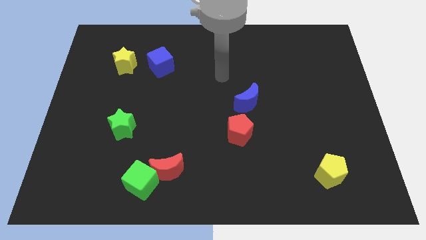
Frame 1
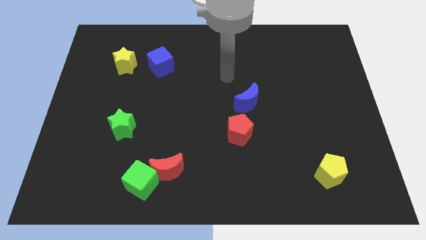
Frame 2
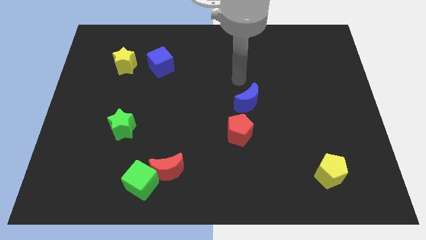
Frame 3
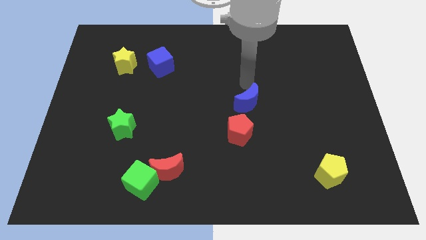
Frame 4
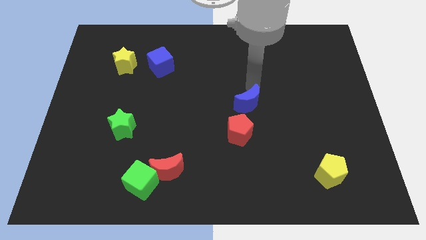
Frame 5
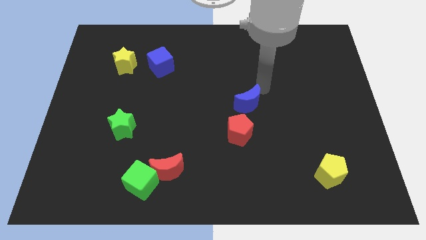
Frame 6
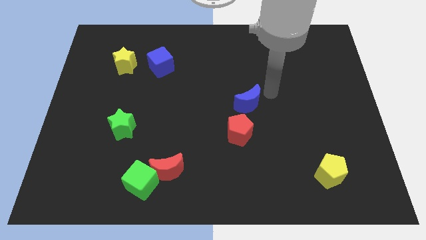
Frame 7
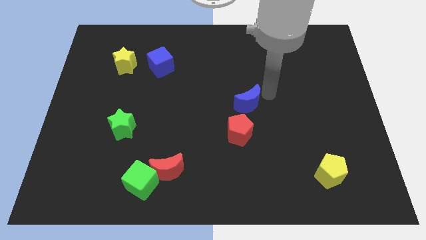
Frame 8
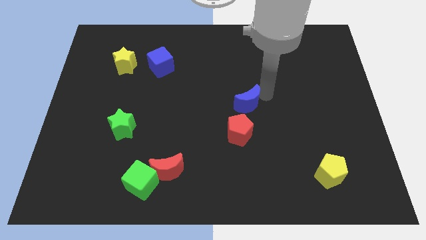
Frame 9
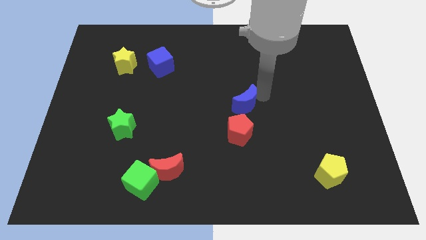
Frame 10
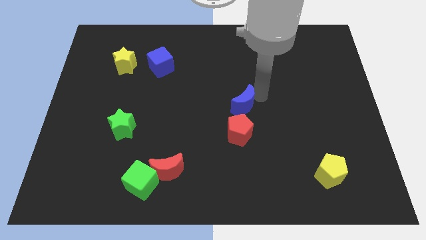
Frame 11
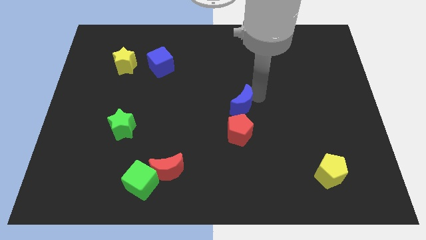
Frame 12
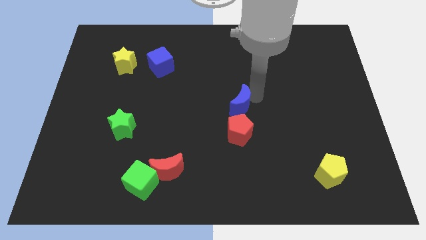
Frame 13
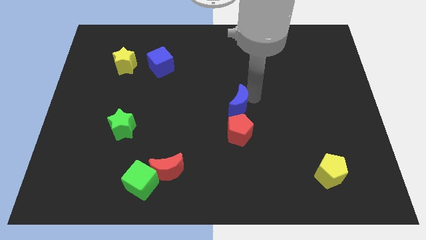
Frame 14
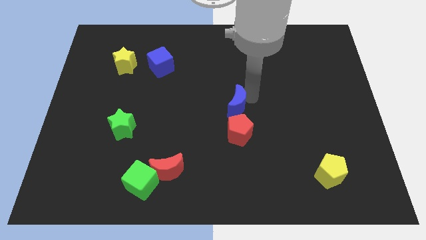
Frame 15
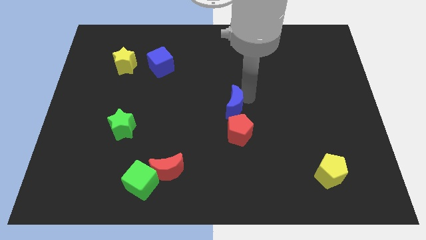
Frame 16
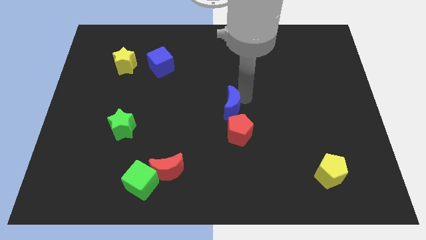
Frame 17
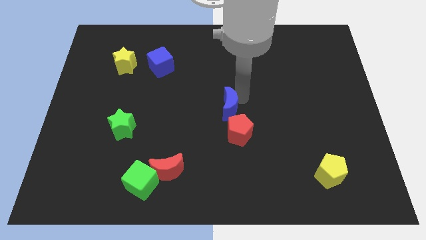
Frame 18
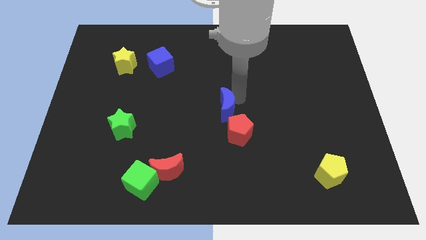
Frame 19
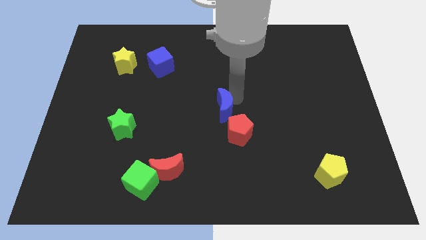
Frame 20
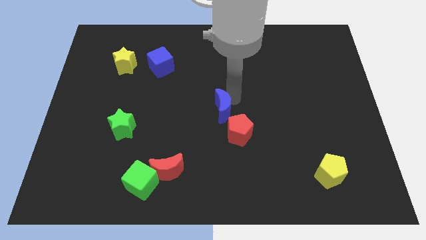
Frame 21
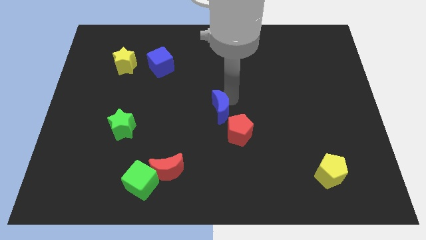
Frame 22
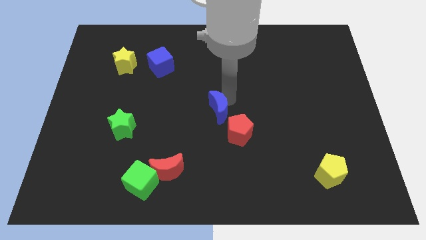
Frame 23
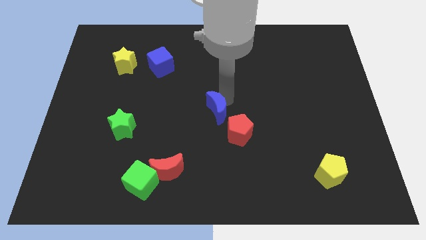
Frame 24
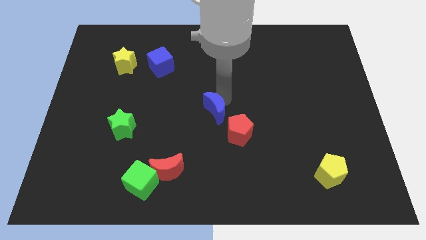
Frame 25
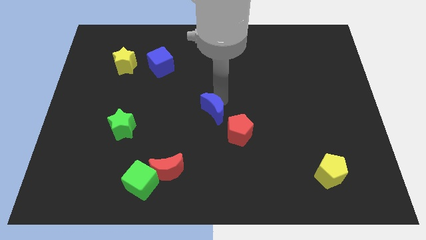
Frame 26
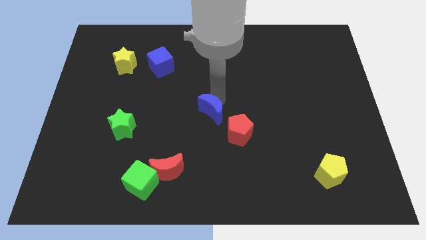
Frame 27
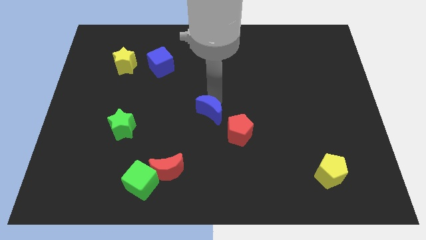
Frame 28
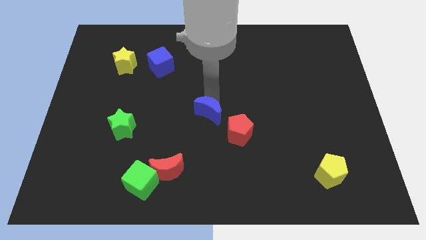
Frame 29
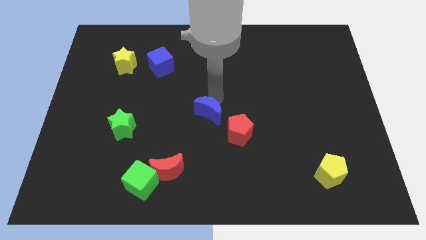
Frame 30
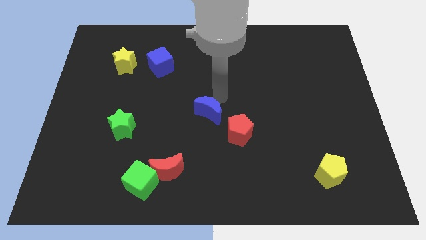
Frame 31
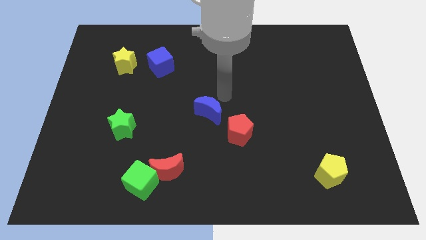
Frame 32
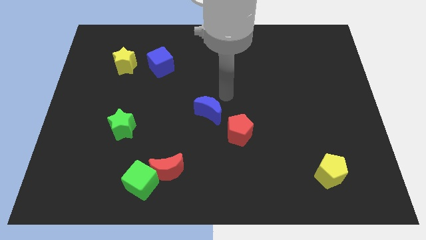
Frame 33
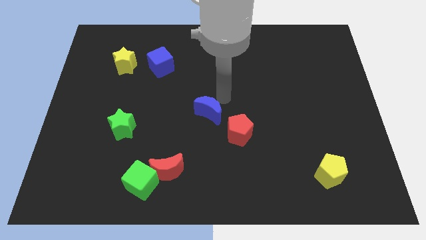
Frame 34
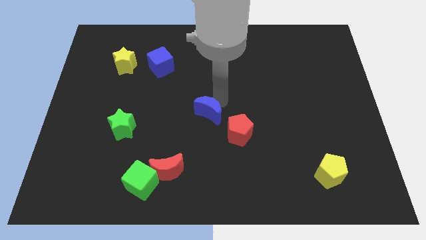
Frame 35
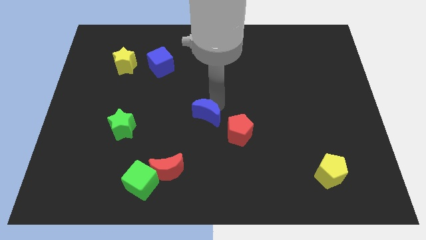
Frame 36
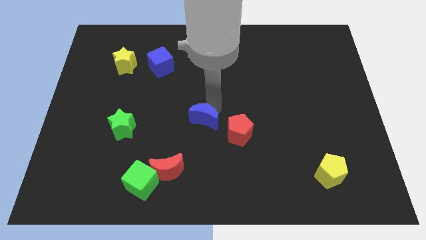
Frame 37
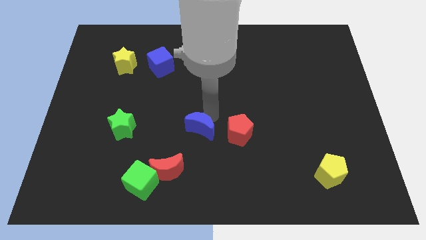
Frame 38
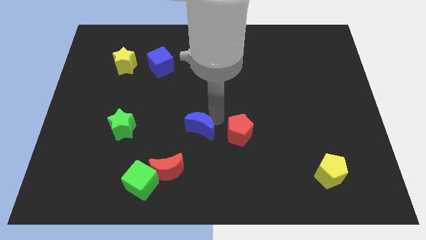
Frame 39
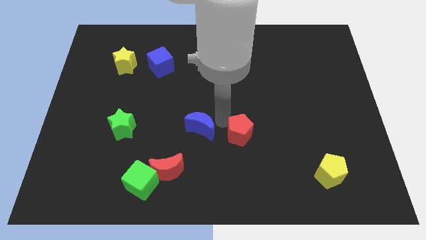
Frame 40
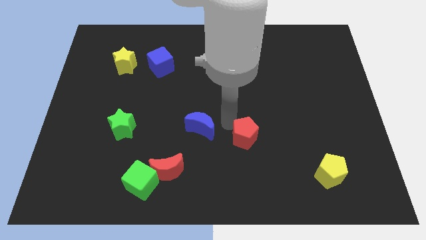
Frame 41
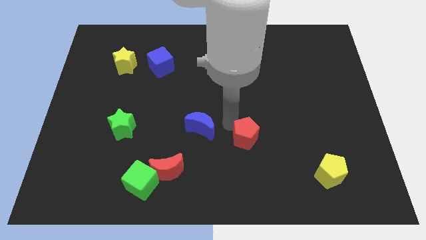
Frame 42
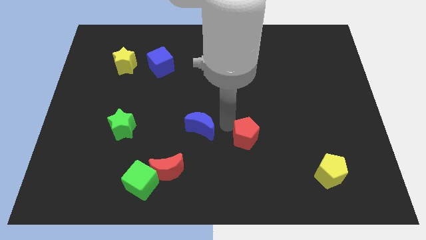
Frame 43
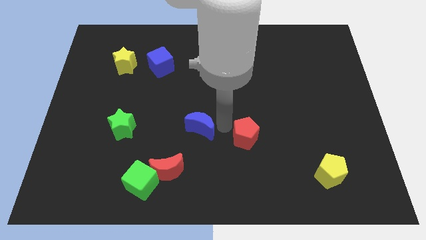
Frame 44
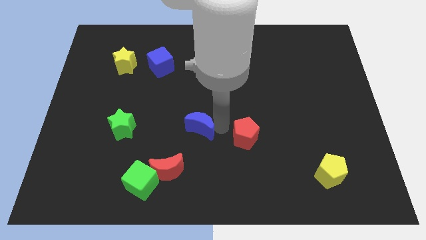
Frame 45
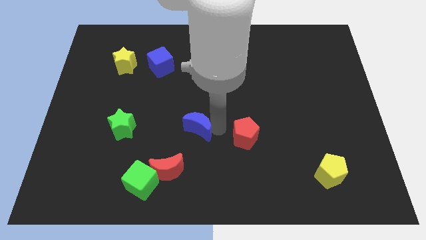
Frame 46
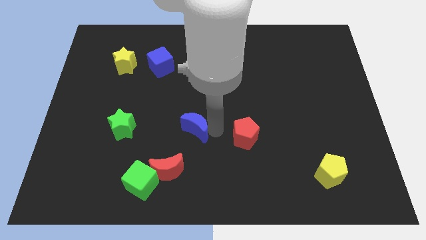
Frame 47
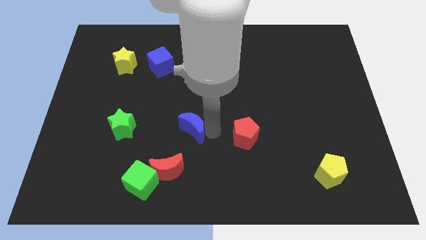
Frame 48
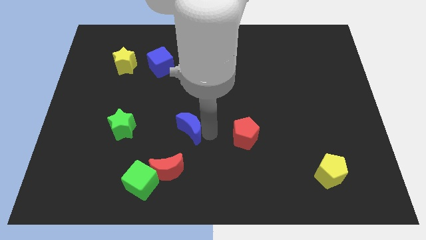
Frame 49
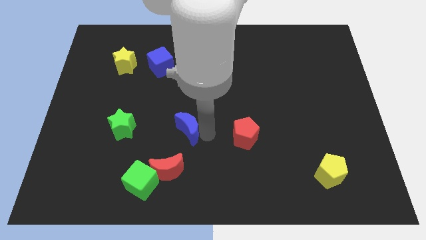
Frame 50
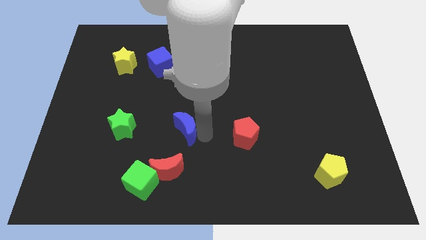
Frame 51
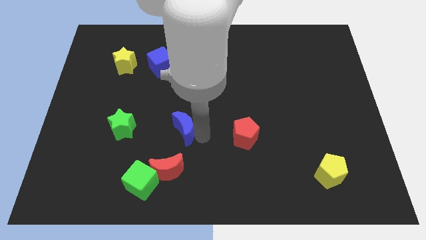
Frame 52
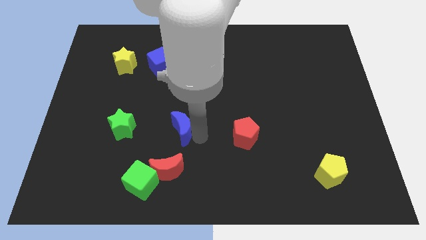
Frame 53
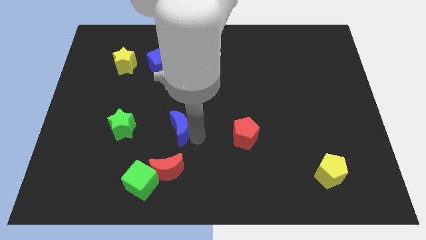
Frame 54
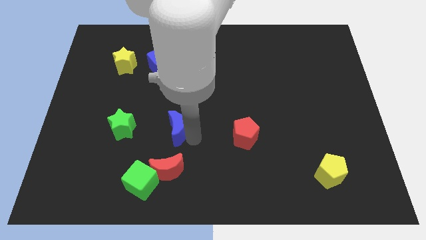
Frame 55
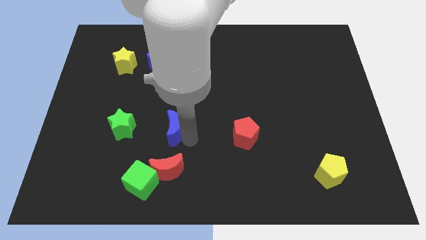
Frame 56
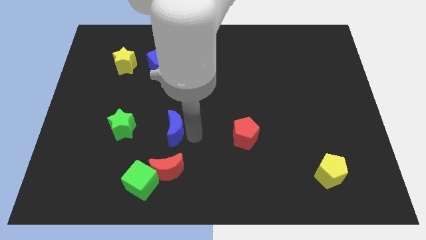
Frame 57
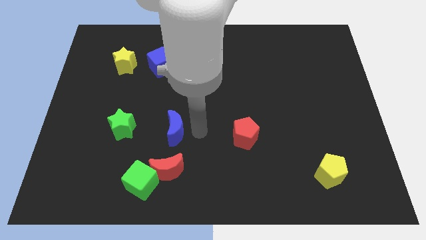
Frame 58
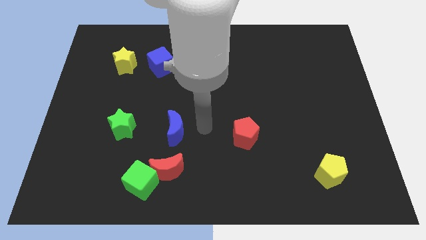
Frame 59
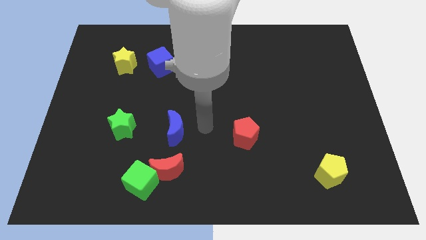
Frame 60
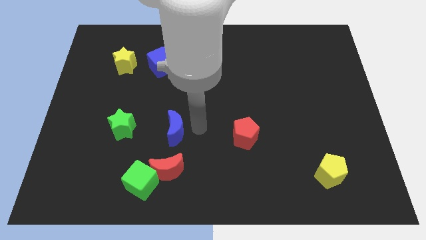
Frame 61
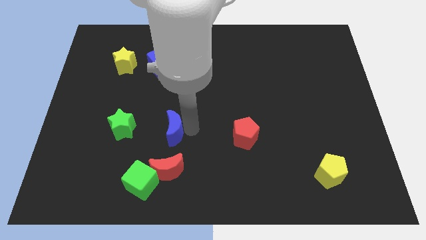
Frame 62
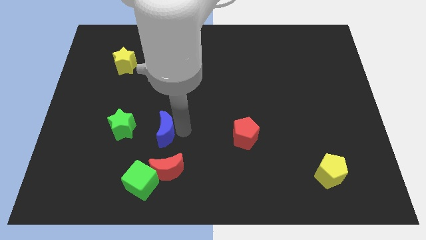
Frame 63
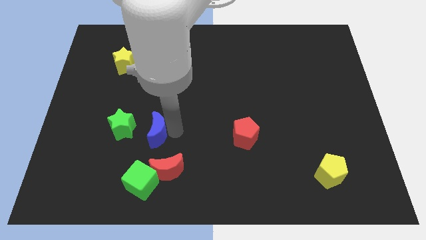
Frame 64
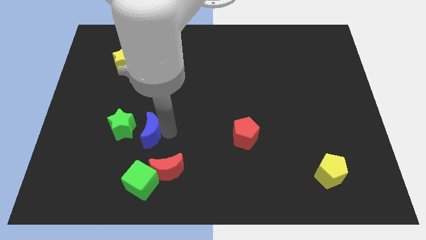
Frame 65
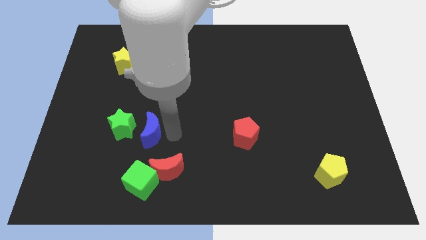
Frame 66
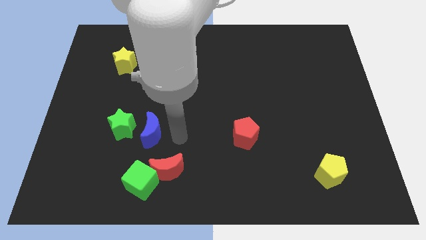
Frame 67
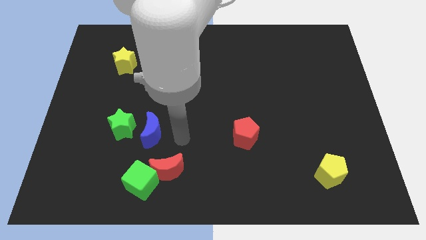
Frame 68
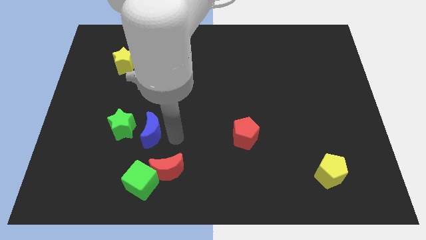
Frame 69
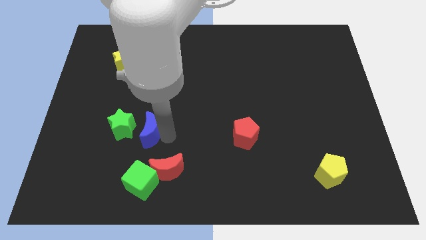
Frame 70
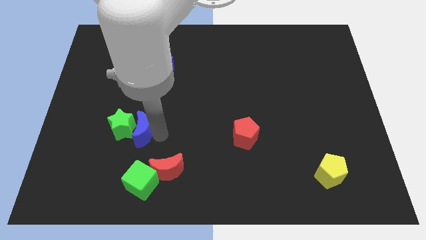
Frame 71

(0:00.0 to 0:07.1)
put the blue moon close to the green star

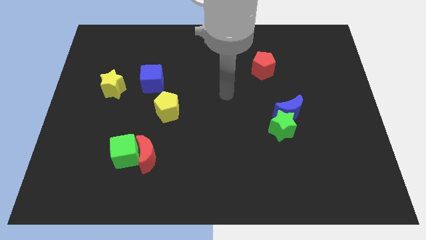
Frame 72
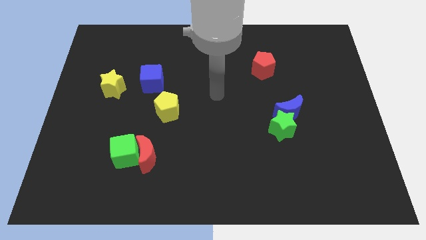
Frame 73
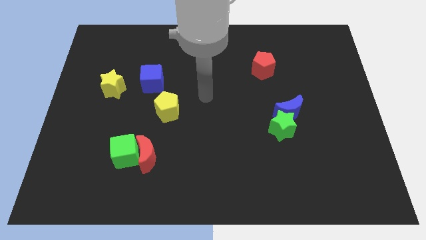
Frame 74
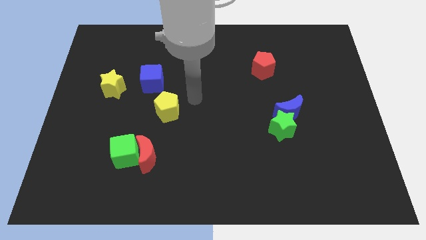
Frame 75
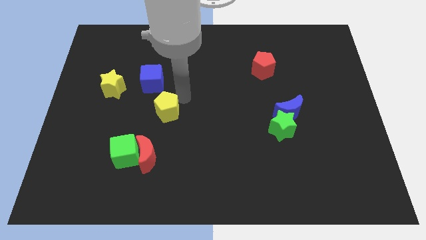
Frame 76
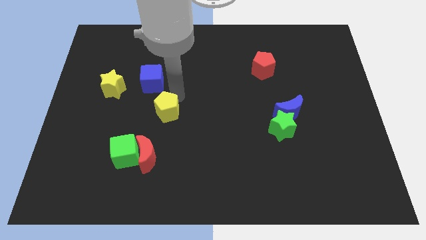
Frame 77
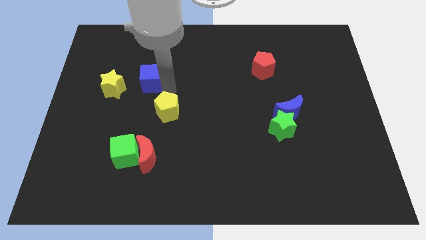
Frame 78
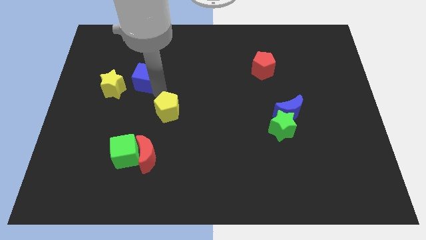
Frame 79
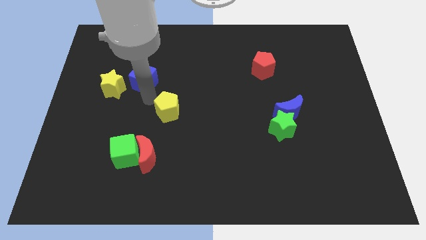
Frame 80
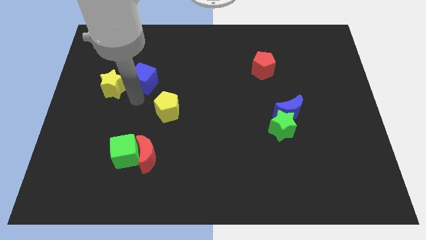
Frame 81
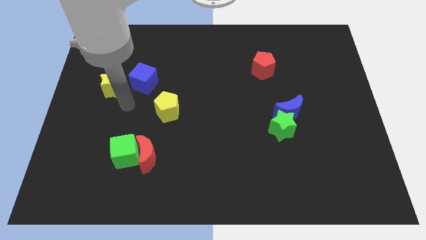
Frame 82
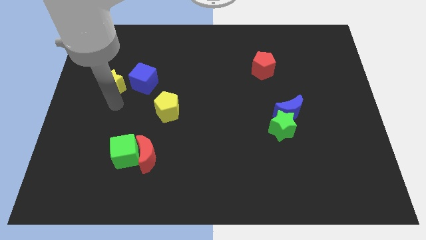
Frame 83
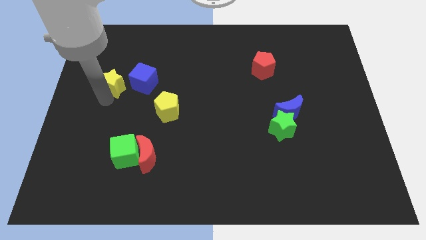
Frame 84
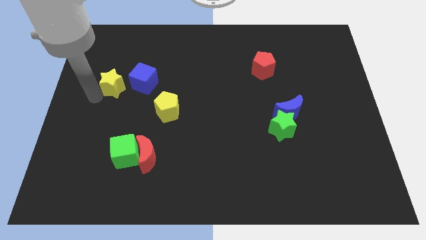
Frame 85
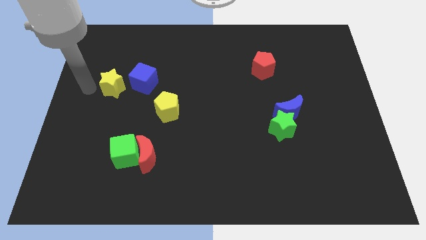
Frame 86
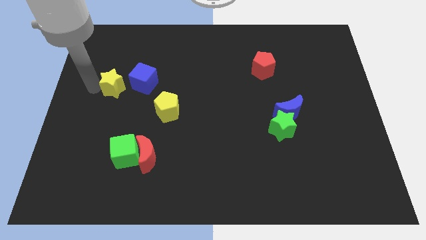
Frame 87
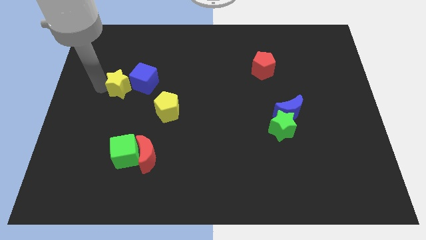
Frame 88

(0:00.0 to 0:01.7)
put the yellow star next to the blue cube
